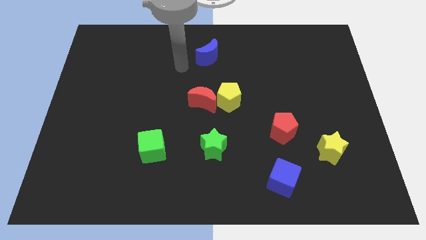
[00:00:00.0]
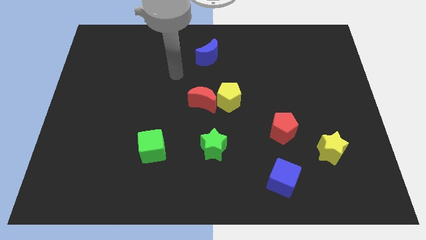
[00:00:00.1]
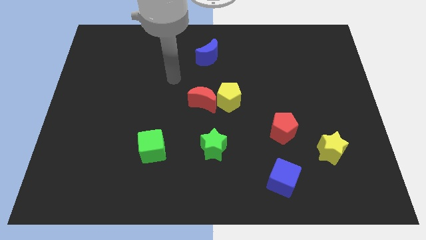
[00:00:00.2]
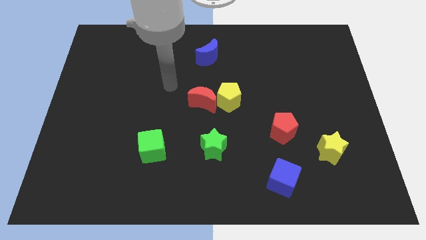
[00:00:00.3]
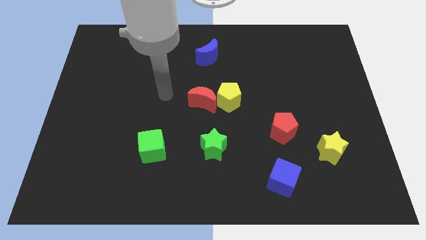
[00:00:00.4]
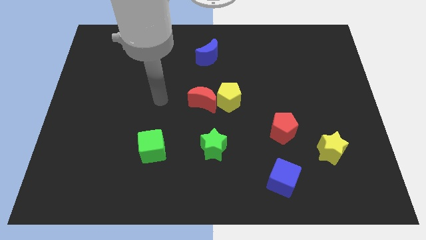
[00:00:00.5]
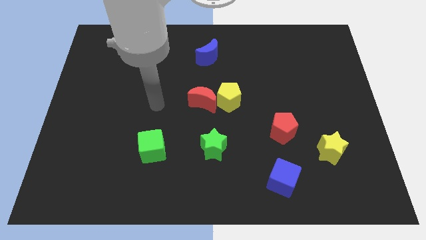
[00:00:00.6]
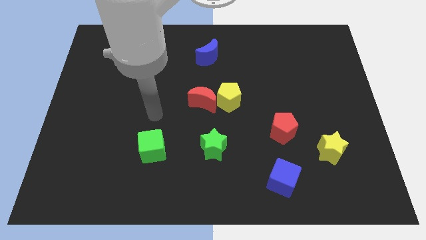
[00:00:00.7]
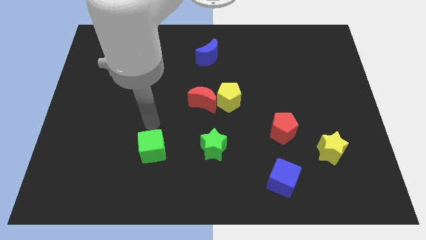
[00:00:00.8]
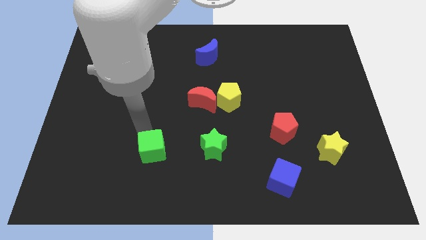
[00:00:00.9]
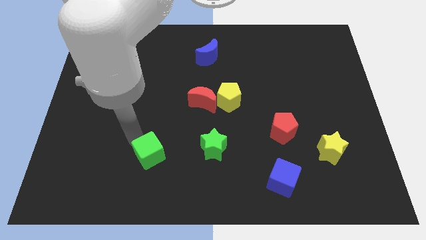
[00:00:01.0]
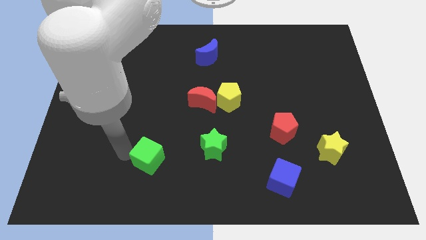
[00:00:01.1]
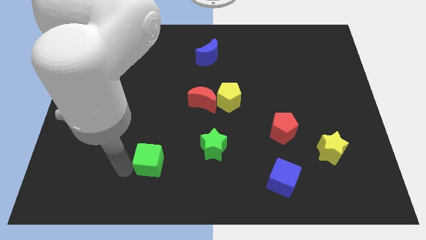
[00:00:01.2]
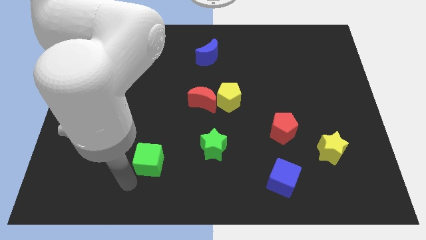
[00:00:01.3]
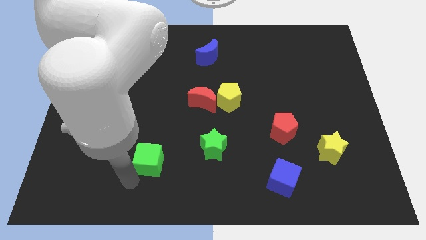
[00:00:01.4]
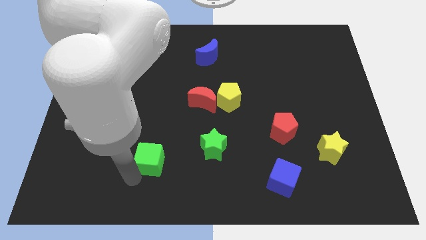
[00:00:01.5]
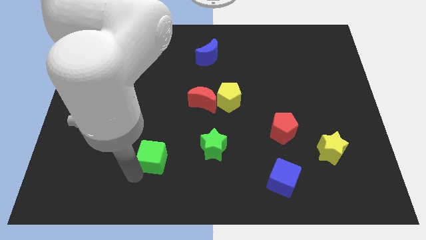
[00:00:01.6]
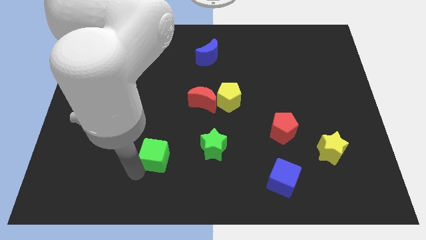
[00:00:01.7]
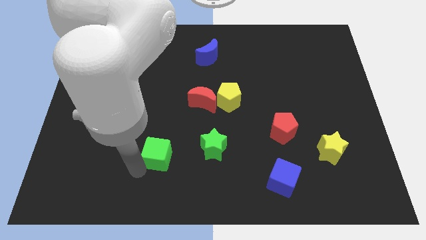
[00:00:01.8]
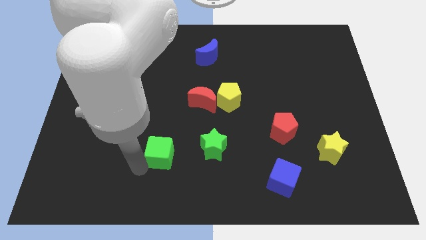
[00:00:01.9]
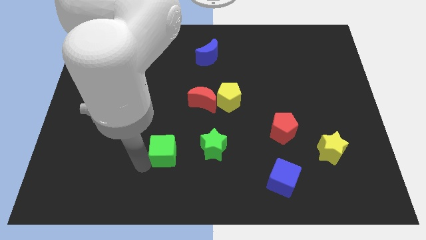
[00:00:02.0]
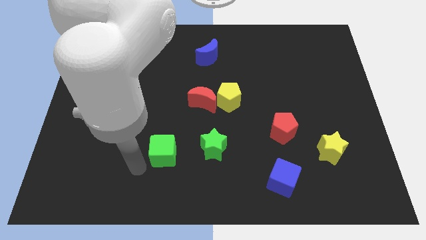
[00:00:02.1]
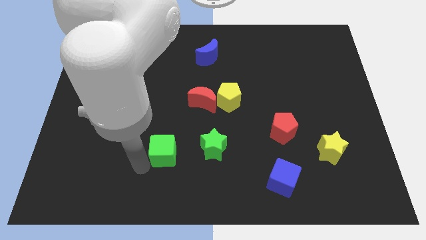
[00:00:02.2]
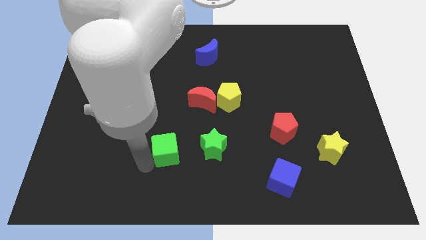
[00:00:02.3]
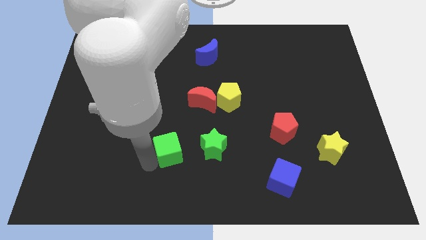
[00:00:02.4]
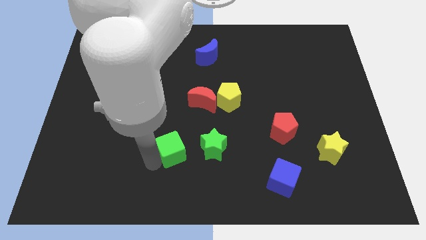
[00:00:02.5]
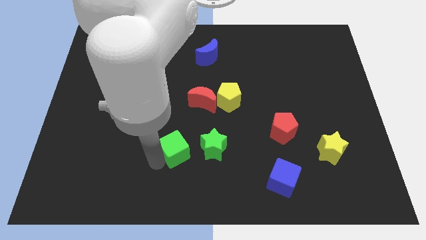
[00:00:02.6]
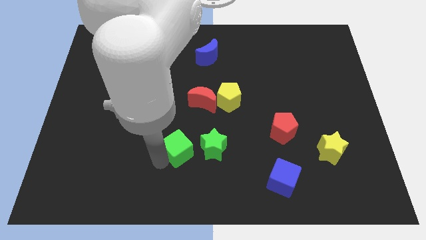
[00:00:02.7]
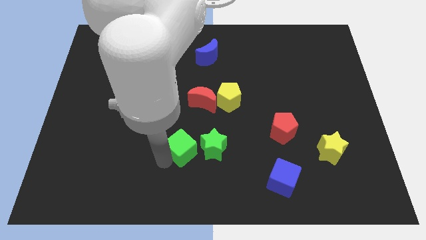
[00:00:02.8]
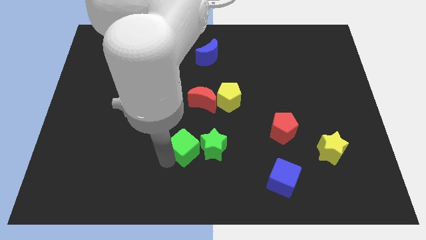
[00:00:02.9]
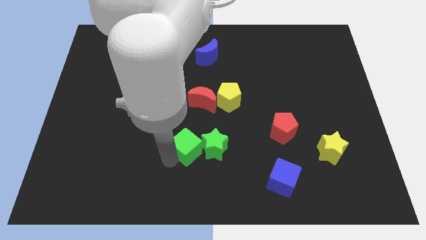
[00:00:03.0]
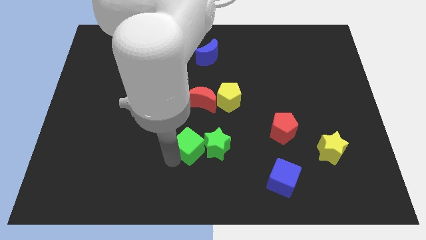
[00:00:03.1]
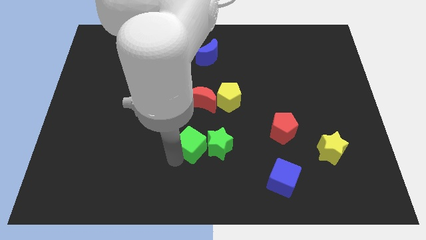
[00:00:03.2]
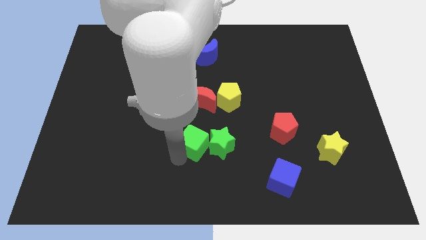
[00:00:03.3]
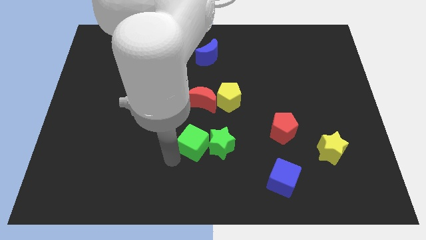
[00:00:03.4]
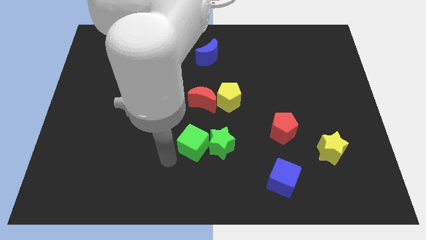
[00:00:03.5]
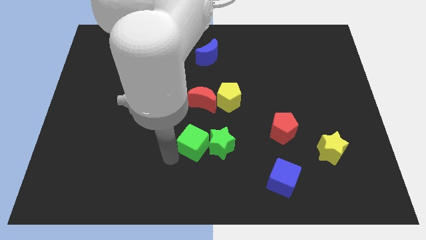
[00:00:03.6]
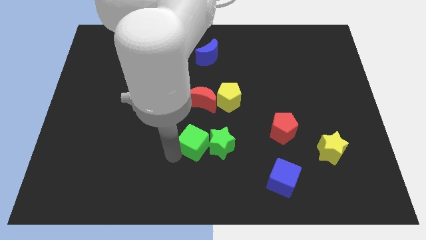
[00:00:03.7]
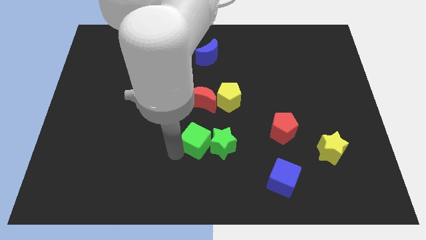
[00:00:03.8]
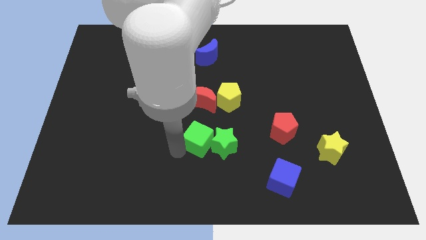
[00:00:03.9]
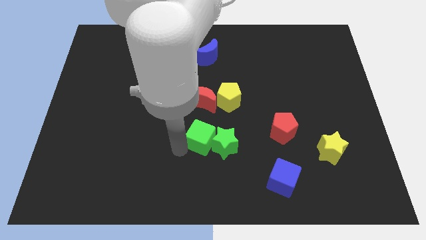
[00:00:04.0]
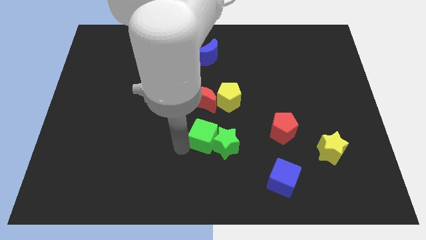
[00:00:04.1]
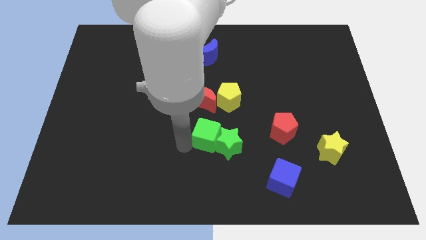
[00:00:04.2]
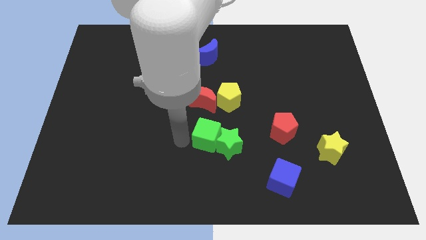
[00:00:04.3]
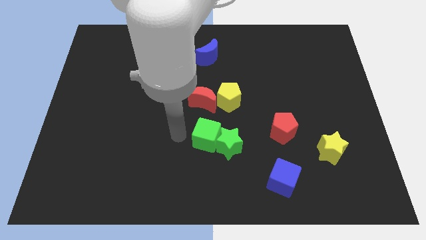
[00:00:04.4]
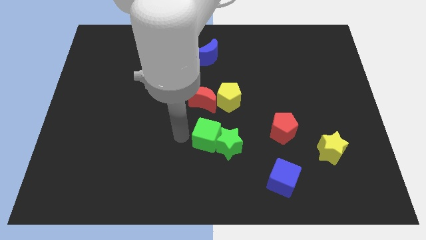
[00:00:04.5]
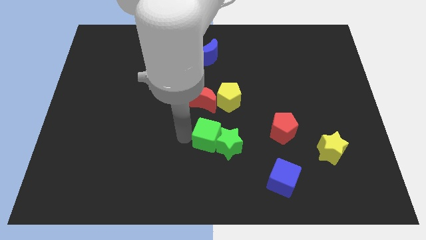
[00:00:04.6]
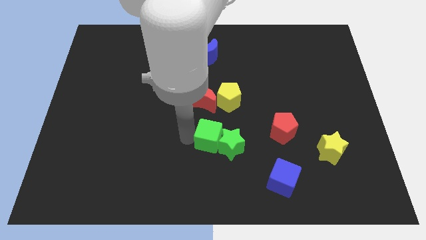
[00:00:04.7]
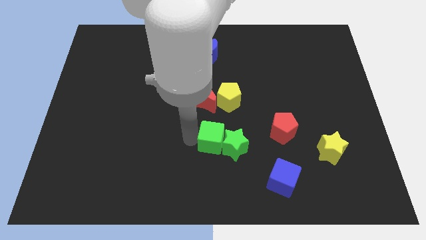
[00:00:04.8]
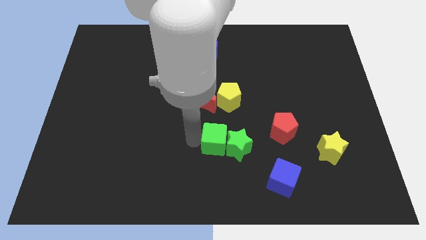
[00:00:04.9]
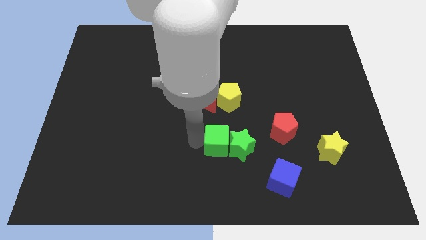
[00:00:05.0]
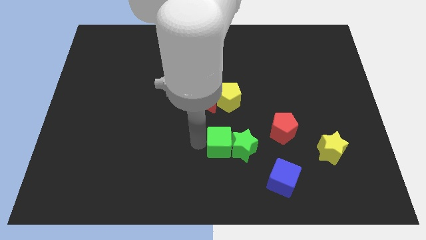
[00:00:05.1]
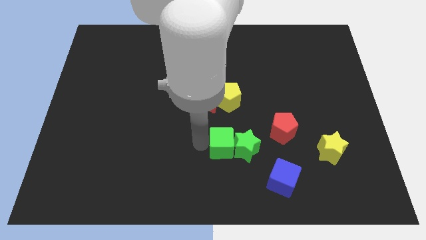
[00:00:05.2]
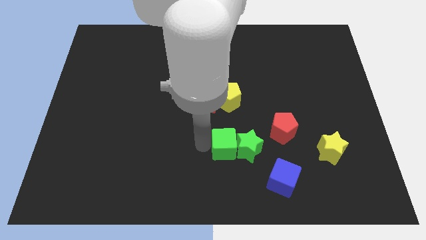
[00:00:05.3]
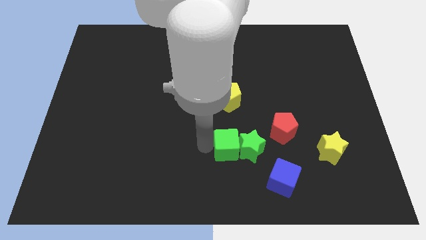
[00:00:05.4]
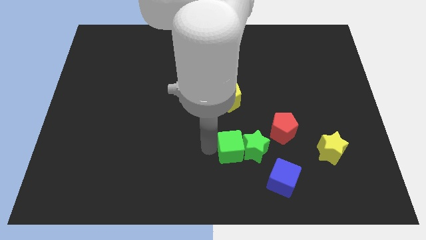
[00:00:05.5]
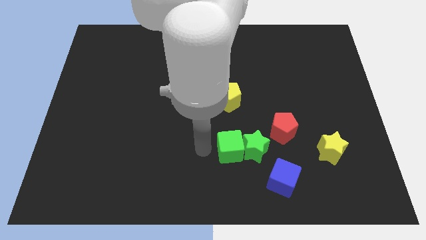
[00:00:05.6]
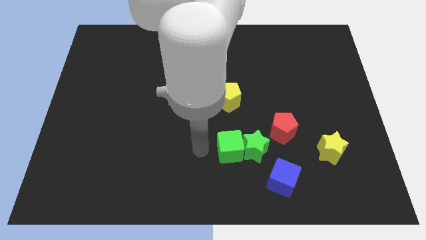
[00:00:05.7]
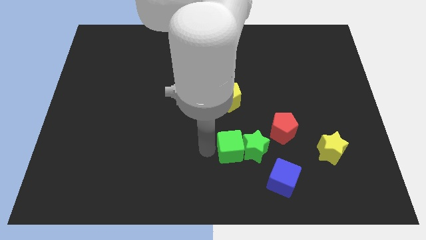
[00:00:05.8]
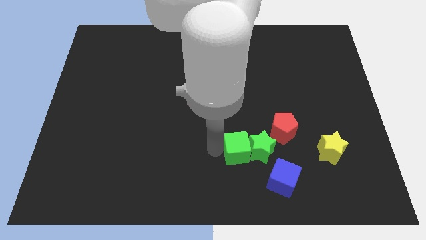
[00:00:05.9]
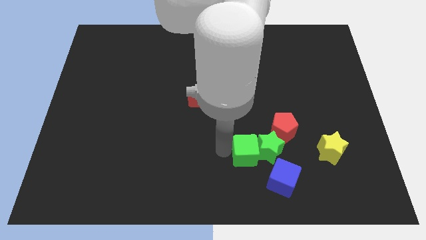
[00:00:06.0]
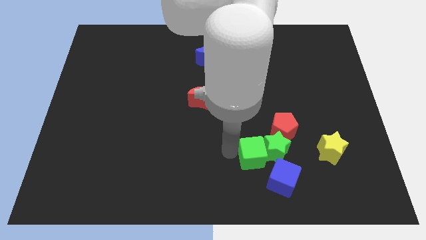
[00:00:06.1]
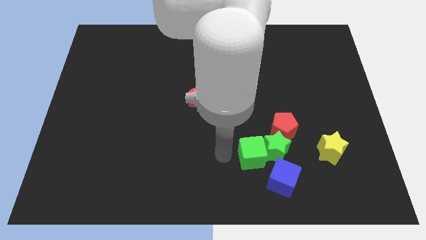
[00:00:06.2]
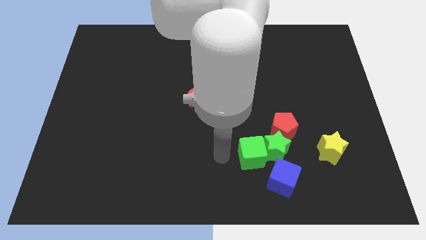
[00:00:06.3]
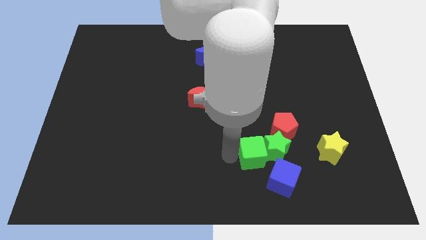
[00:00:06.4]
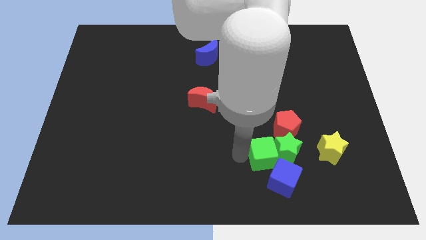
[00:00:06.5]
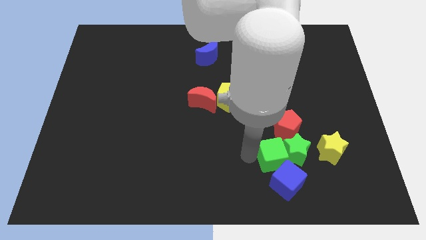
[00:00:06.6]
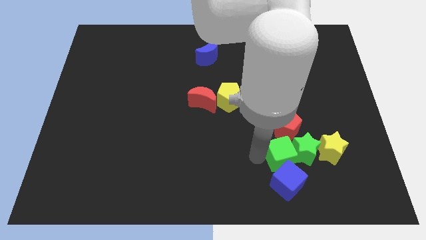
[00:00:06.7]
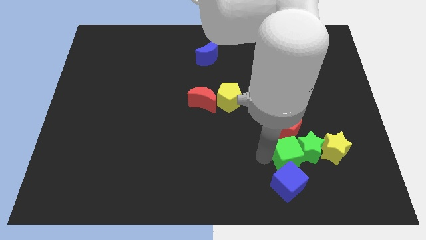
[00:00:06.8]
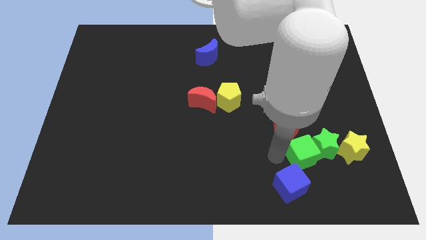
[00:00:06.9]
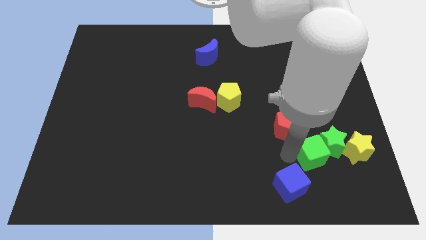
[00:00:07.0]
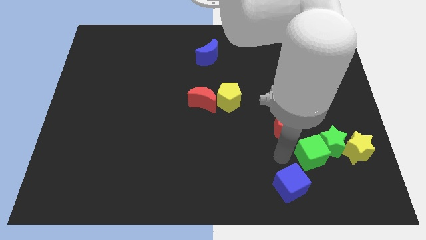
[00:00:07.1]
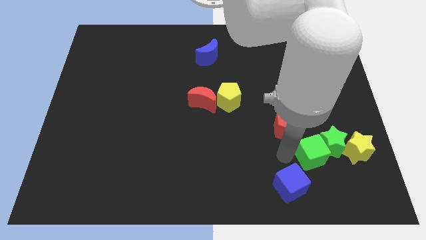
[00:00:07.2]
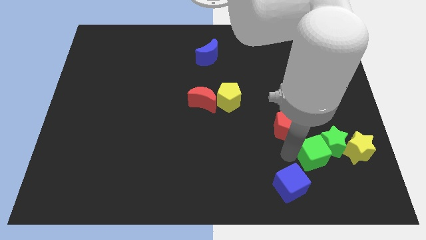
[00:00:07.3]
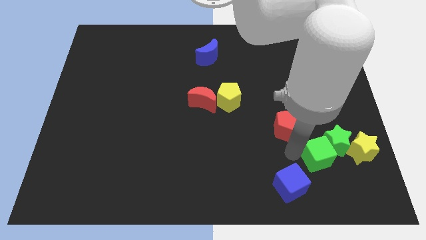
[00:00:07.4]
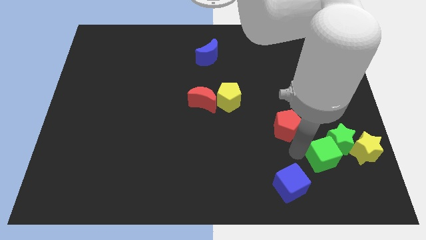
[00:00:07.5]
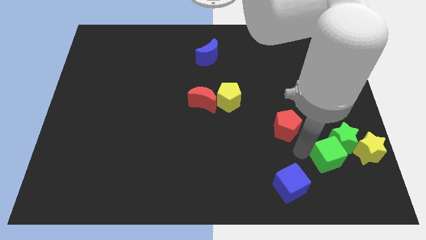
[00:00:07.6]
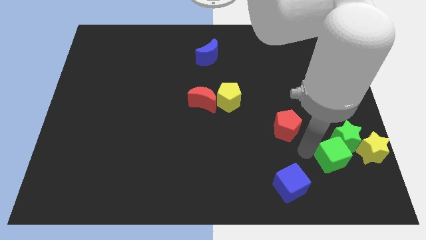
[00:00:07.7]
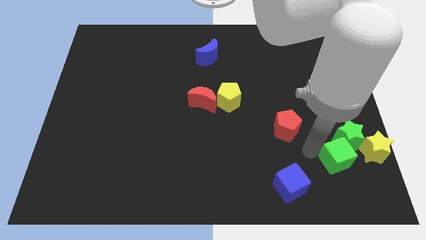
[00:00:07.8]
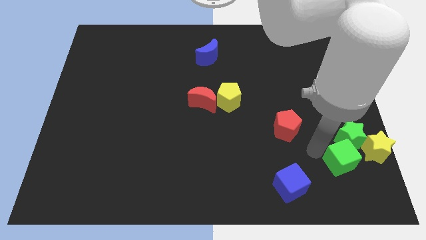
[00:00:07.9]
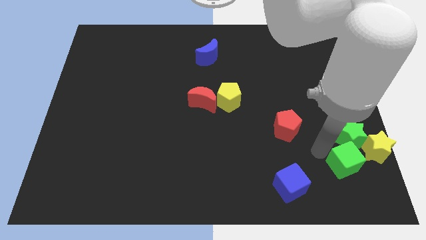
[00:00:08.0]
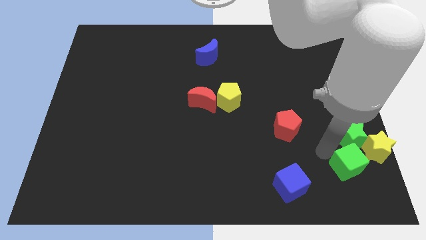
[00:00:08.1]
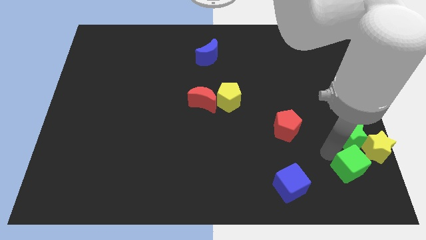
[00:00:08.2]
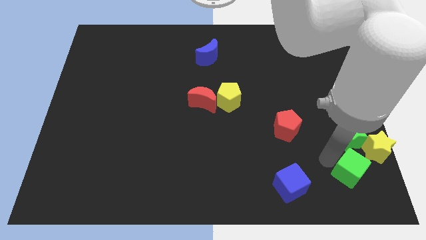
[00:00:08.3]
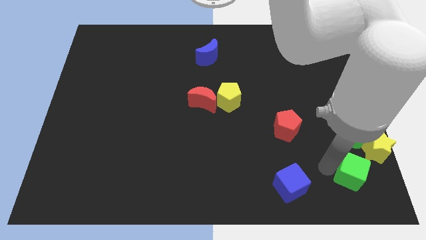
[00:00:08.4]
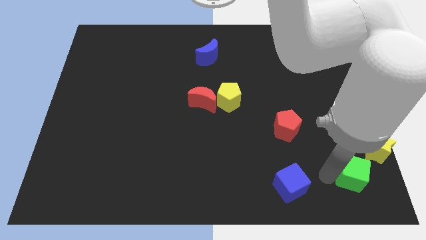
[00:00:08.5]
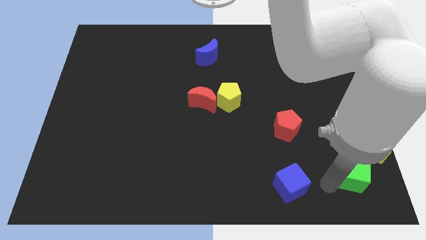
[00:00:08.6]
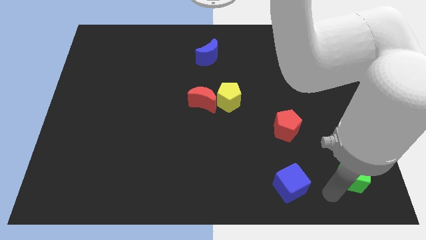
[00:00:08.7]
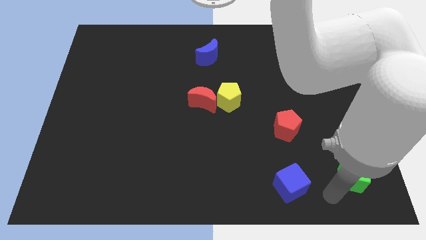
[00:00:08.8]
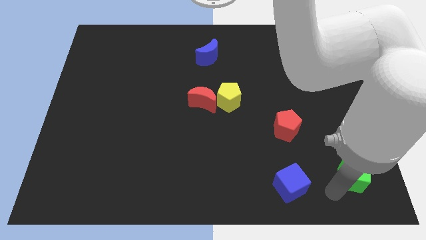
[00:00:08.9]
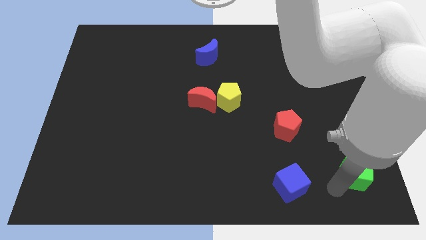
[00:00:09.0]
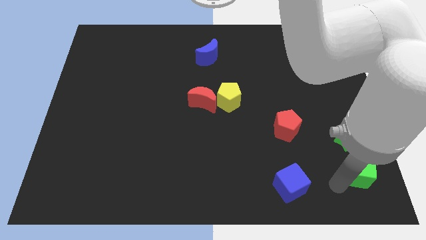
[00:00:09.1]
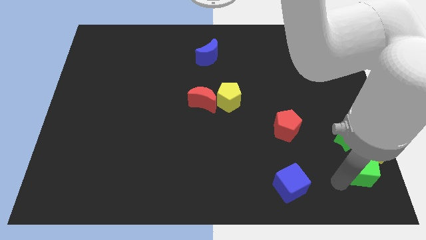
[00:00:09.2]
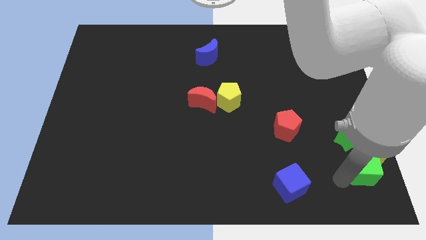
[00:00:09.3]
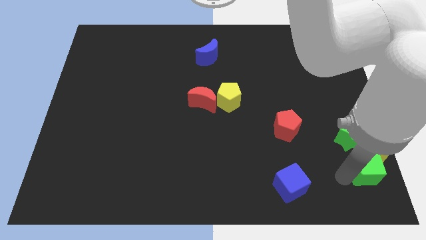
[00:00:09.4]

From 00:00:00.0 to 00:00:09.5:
put the green cube towards the yellow star
